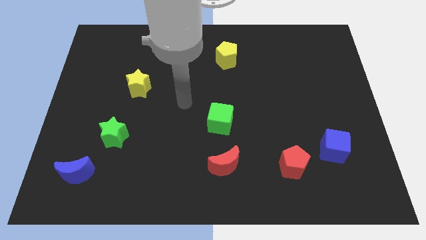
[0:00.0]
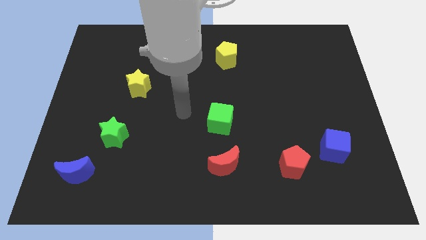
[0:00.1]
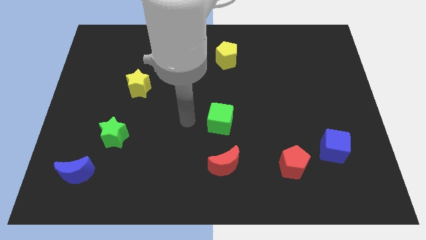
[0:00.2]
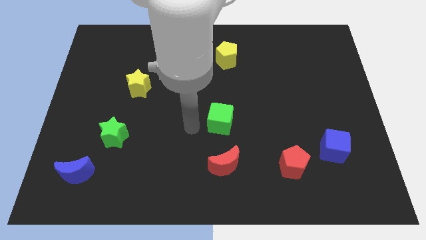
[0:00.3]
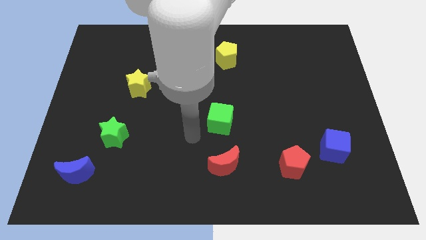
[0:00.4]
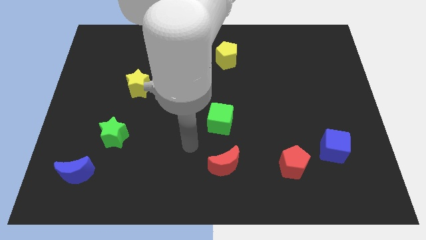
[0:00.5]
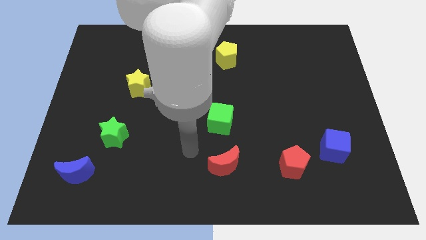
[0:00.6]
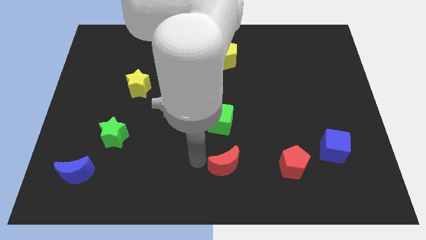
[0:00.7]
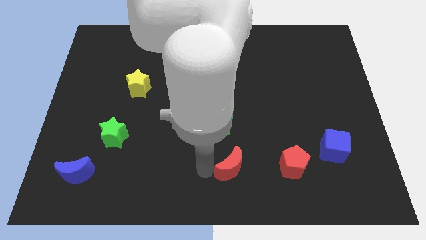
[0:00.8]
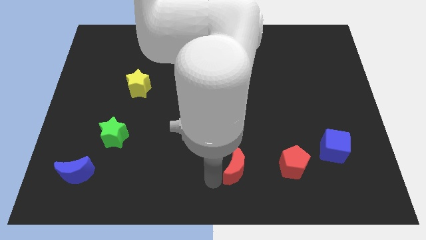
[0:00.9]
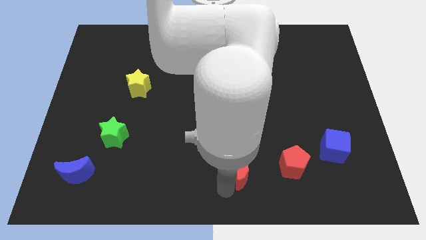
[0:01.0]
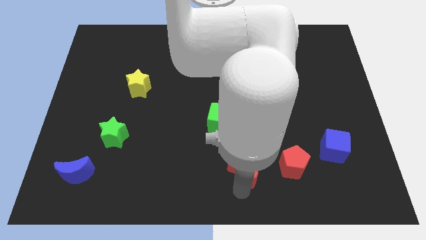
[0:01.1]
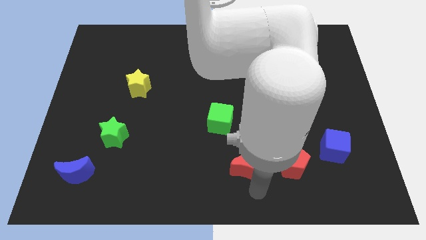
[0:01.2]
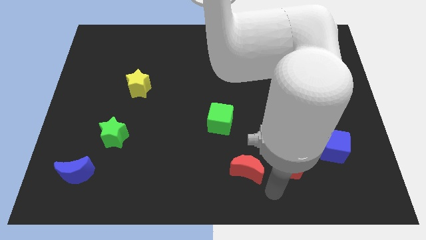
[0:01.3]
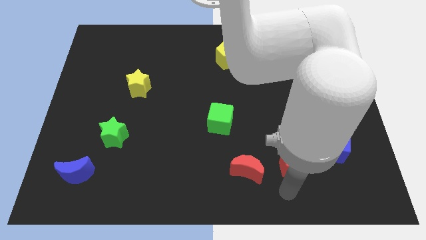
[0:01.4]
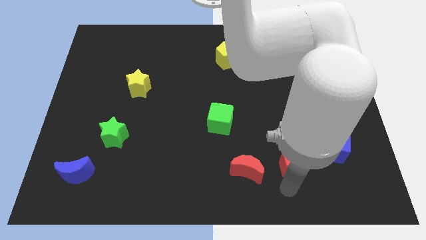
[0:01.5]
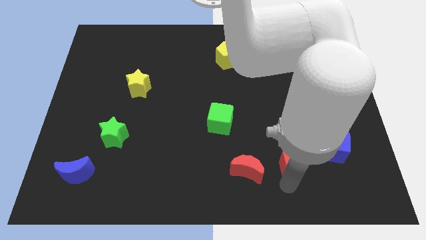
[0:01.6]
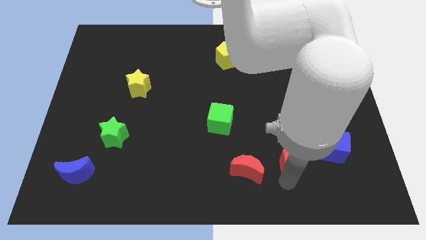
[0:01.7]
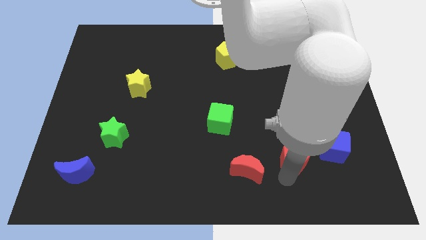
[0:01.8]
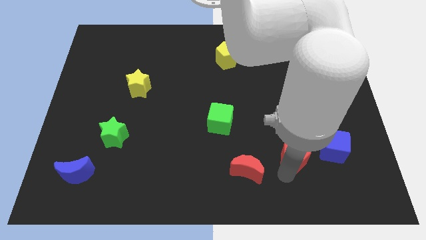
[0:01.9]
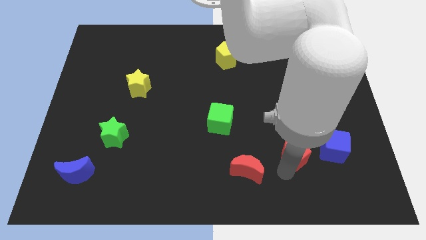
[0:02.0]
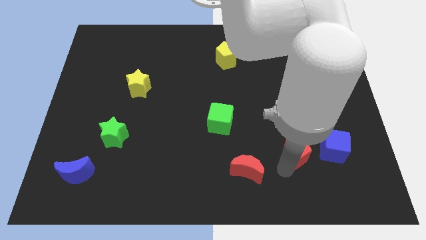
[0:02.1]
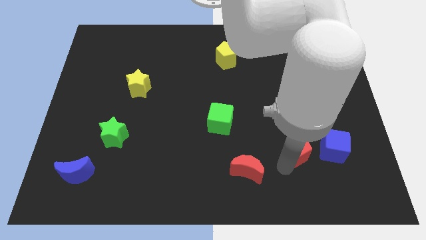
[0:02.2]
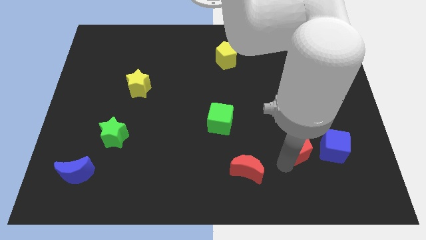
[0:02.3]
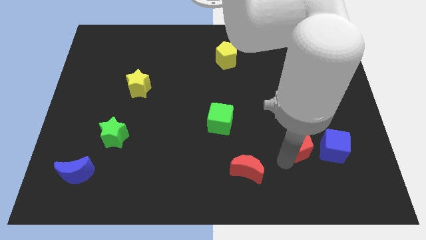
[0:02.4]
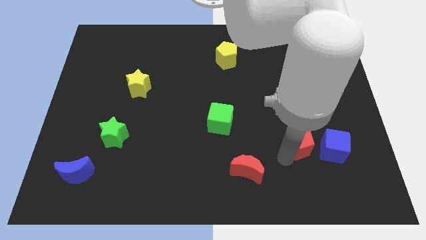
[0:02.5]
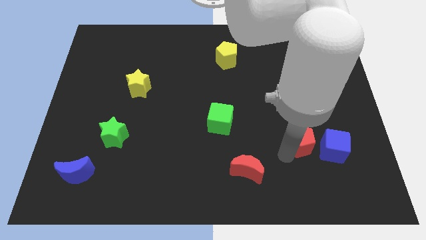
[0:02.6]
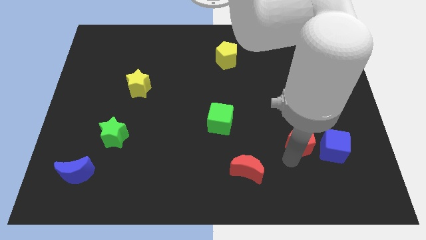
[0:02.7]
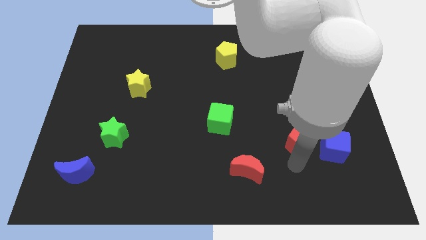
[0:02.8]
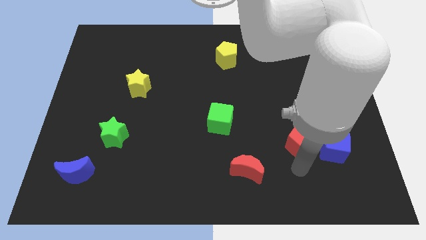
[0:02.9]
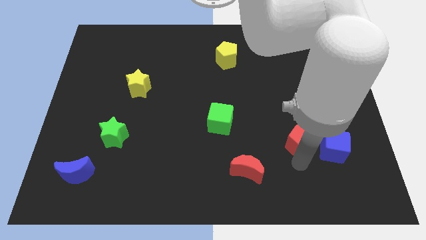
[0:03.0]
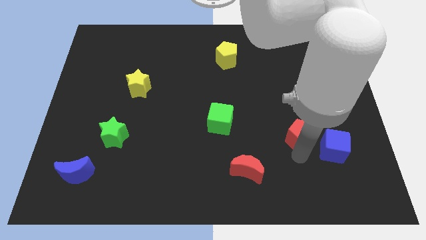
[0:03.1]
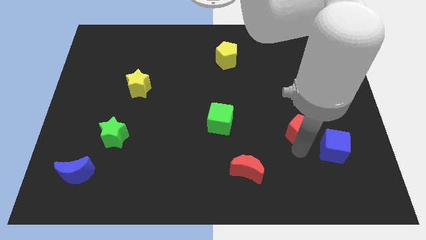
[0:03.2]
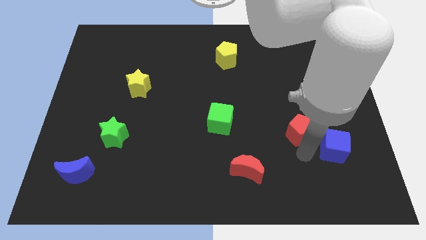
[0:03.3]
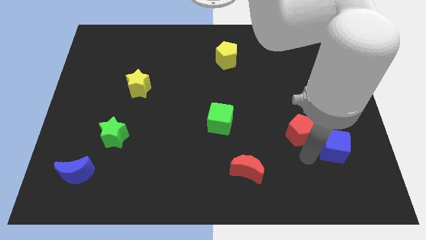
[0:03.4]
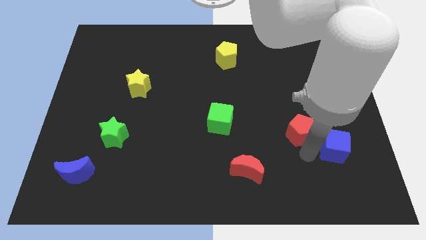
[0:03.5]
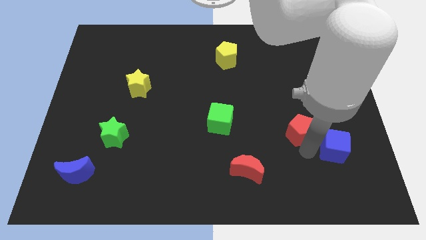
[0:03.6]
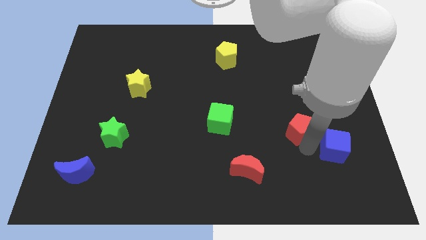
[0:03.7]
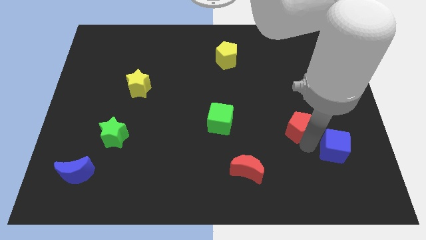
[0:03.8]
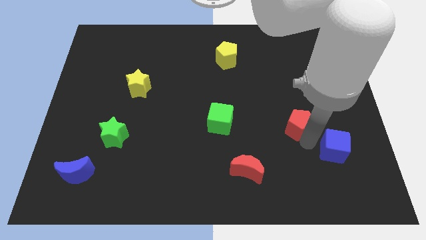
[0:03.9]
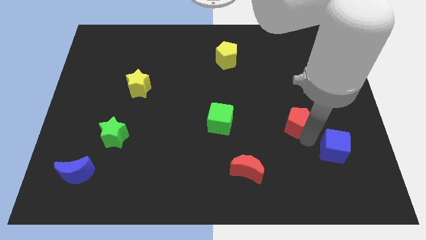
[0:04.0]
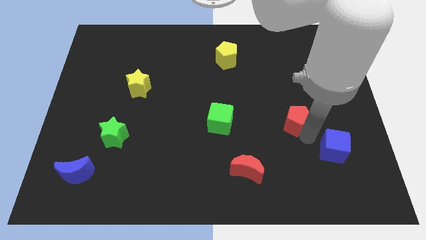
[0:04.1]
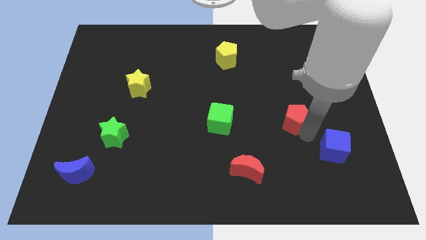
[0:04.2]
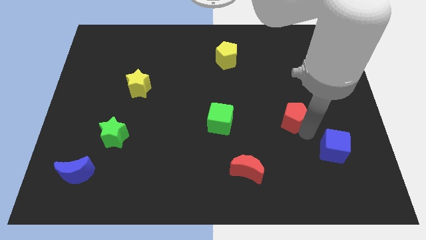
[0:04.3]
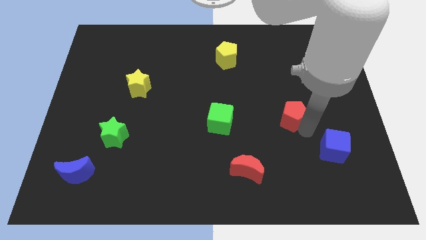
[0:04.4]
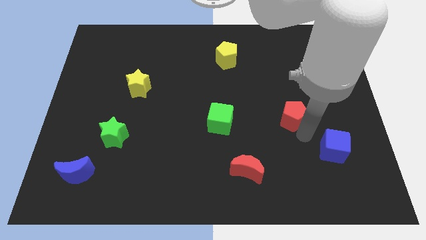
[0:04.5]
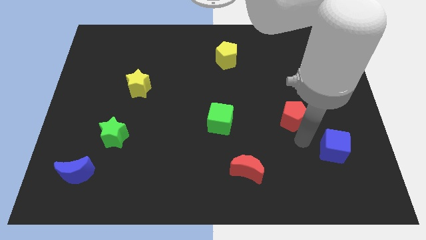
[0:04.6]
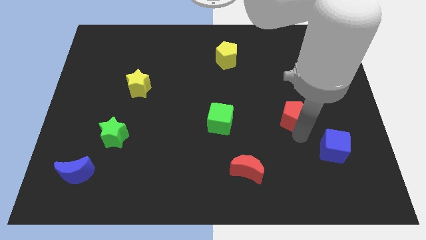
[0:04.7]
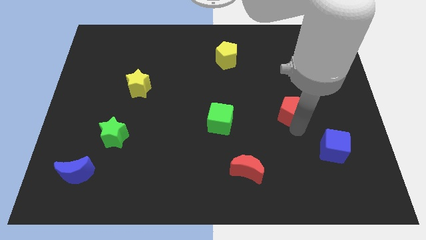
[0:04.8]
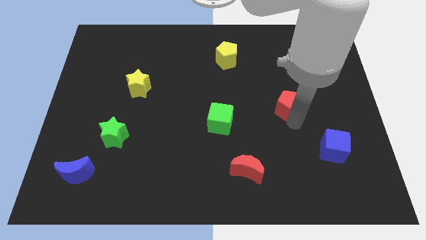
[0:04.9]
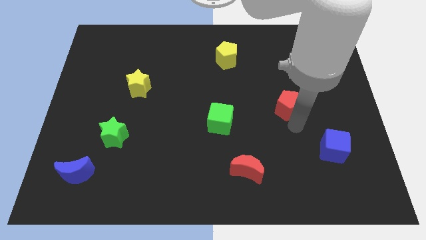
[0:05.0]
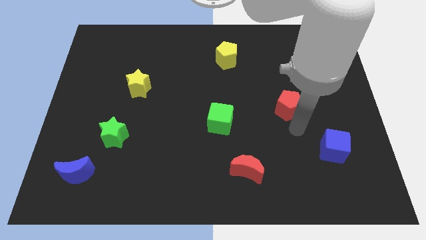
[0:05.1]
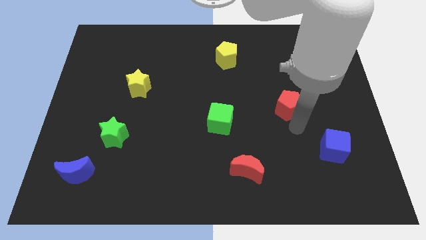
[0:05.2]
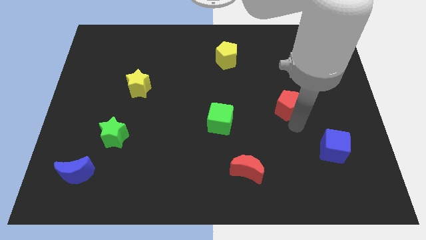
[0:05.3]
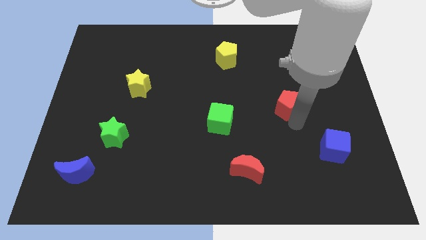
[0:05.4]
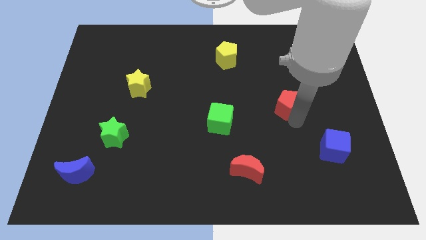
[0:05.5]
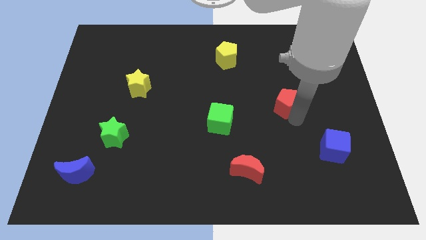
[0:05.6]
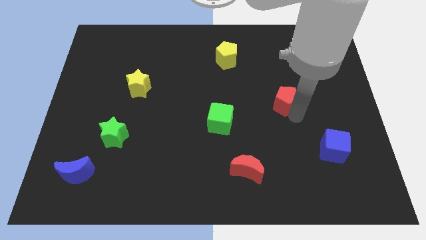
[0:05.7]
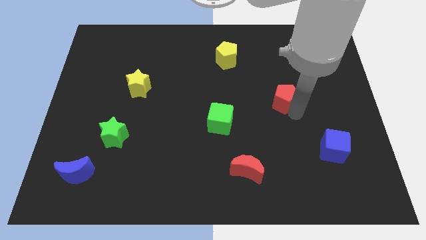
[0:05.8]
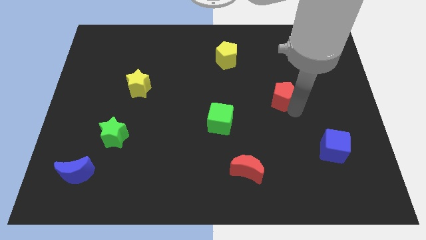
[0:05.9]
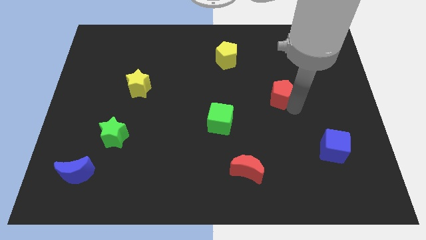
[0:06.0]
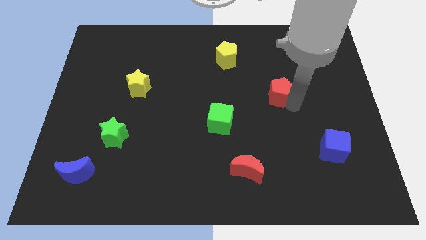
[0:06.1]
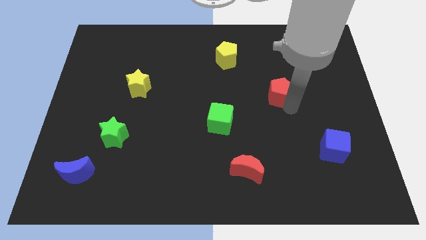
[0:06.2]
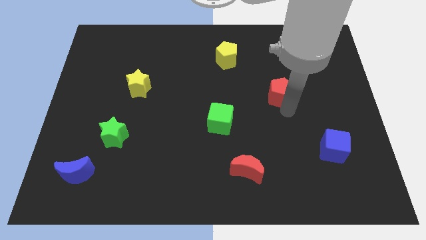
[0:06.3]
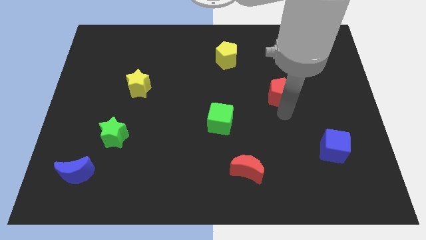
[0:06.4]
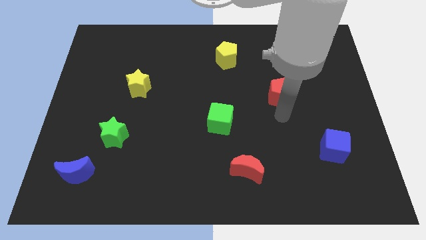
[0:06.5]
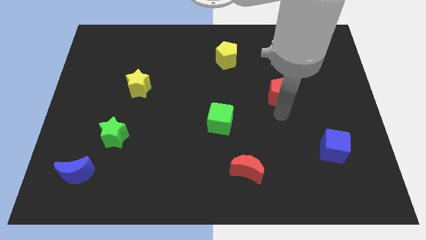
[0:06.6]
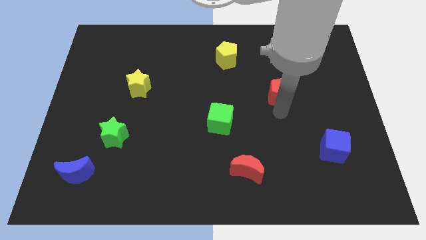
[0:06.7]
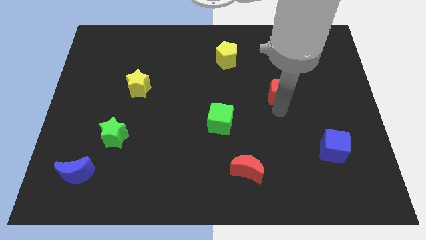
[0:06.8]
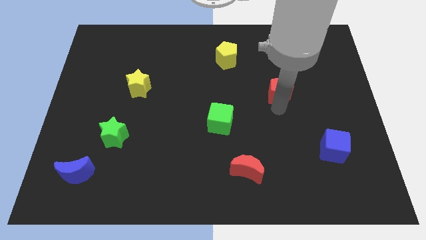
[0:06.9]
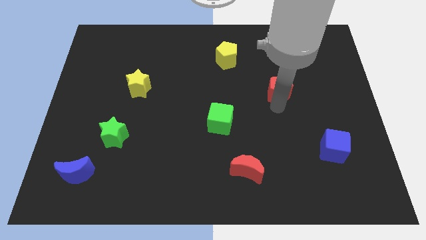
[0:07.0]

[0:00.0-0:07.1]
move the red pentagon up

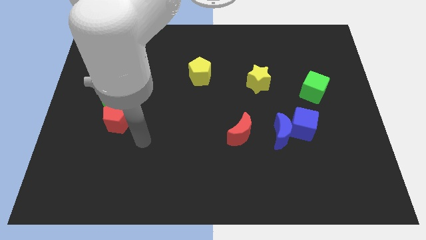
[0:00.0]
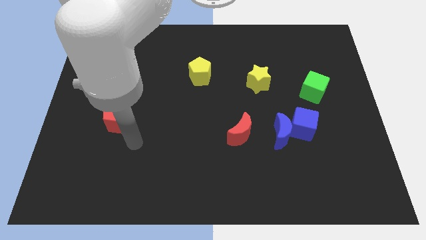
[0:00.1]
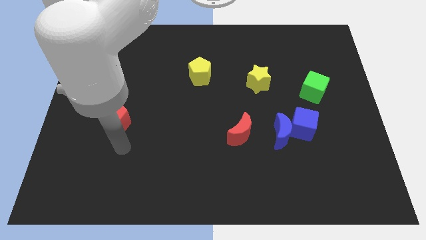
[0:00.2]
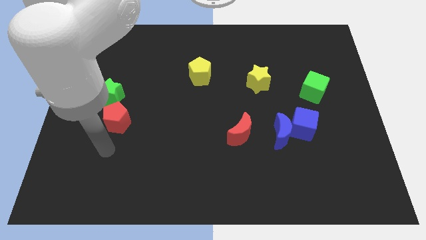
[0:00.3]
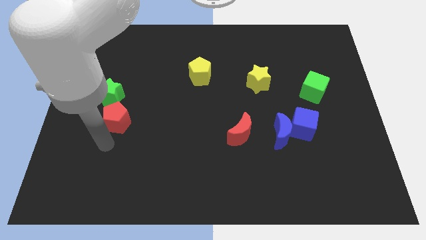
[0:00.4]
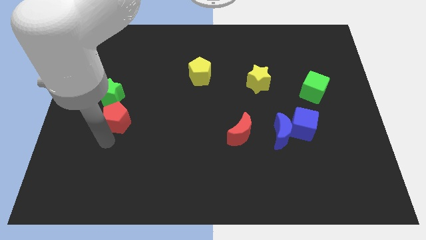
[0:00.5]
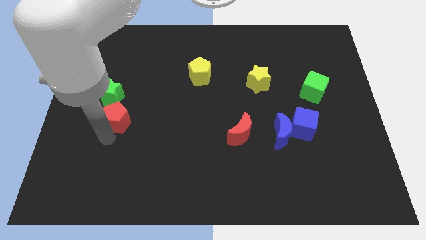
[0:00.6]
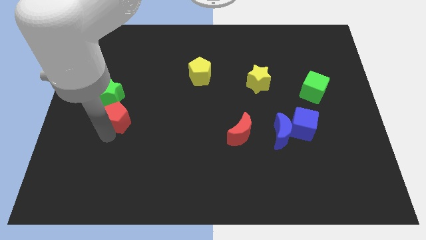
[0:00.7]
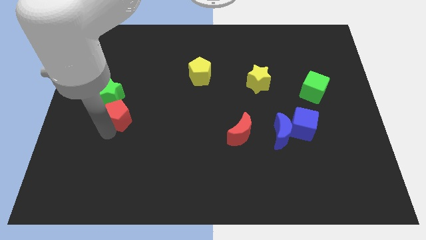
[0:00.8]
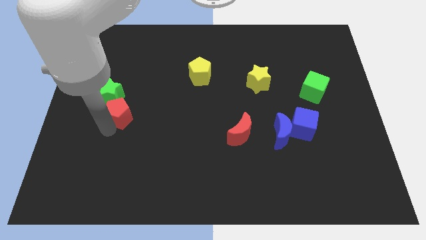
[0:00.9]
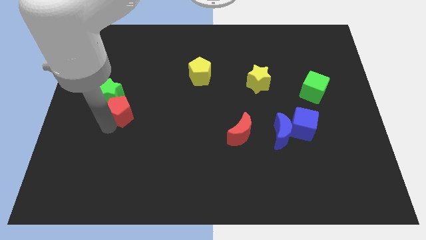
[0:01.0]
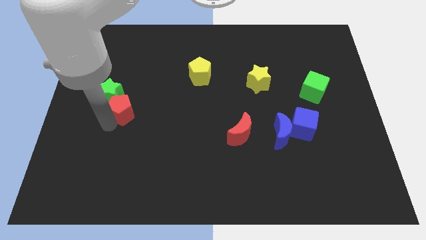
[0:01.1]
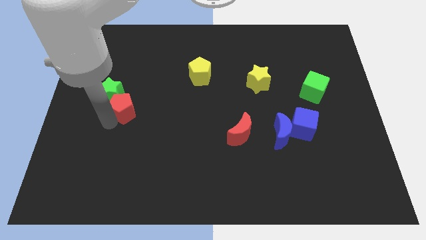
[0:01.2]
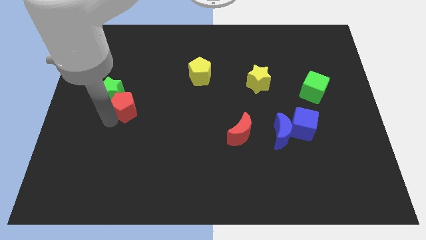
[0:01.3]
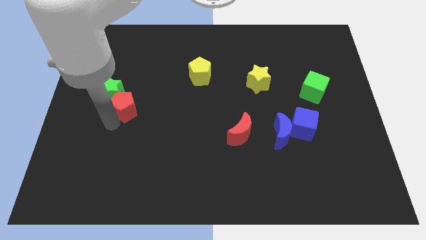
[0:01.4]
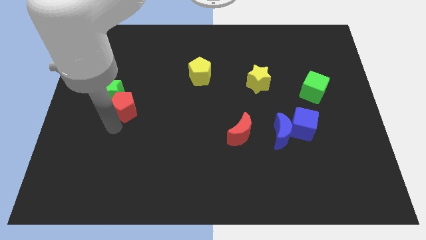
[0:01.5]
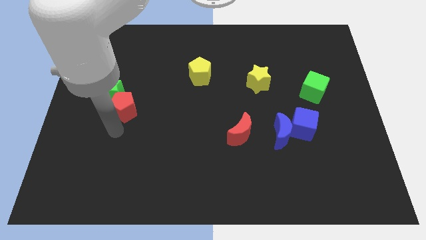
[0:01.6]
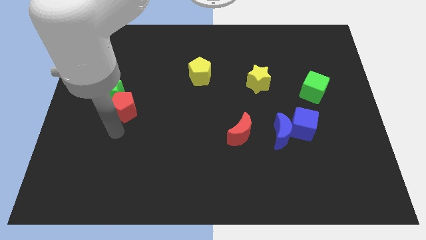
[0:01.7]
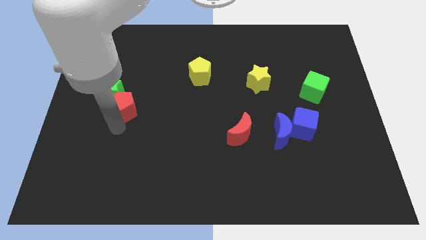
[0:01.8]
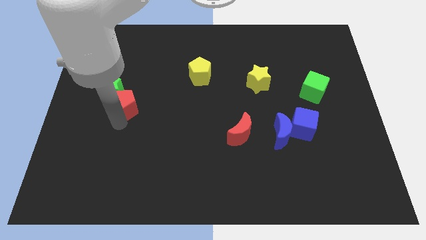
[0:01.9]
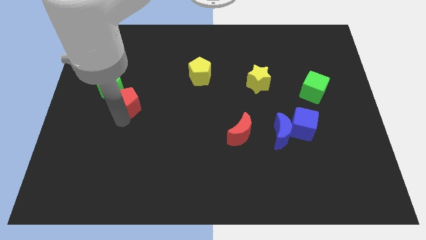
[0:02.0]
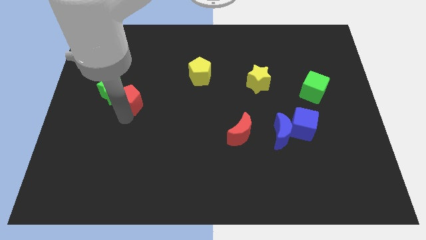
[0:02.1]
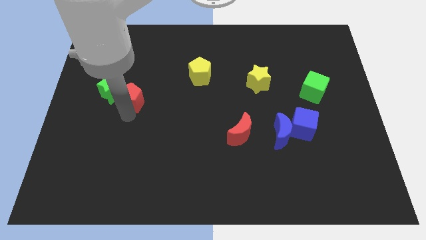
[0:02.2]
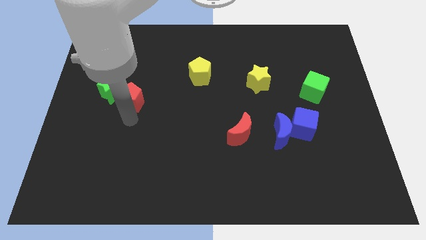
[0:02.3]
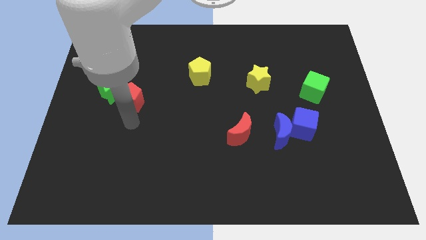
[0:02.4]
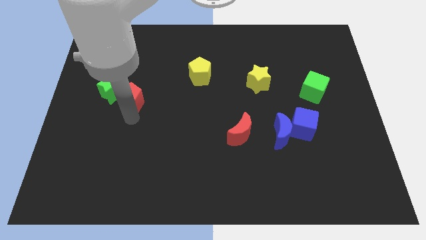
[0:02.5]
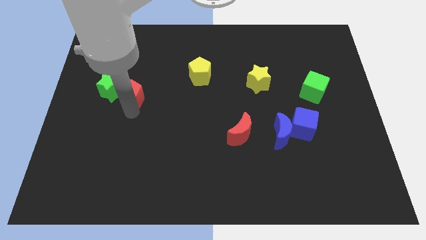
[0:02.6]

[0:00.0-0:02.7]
push the red pentagon up slightly
